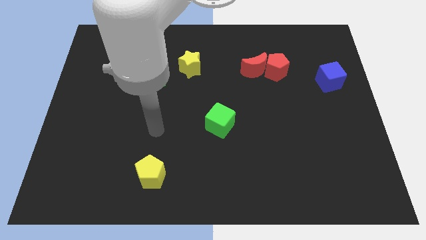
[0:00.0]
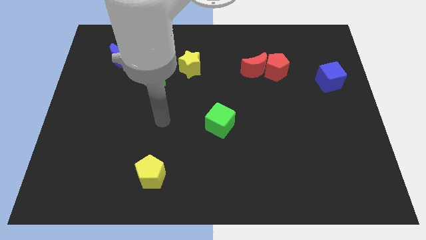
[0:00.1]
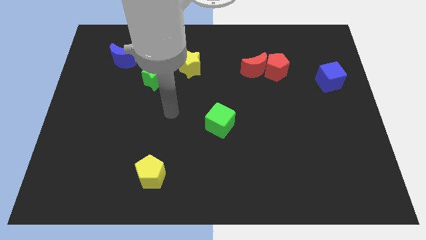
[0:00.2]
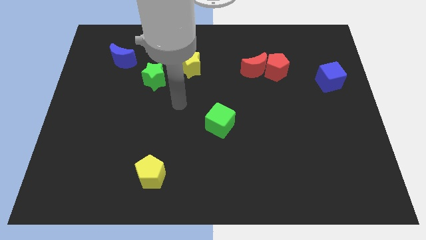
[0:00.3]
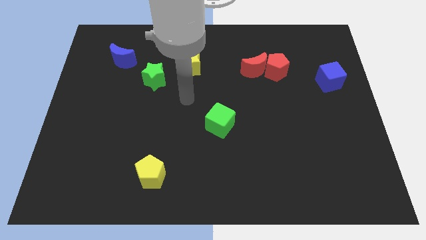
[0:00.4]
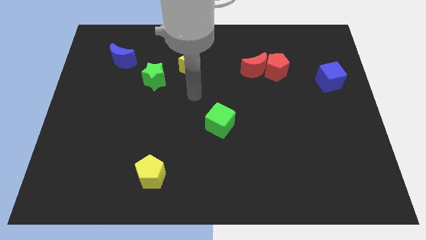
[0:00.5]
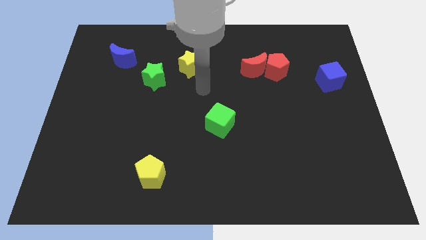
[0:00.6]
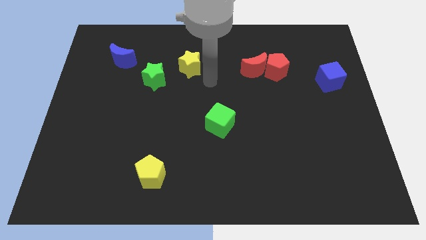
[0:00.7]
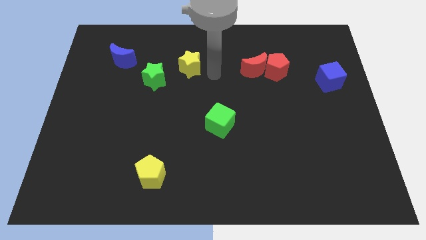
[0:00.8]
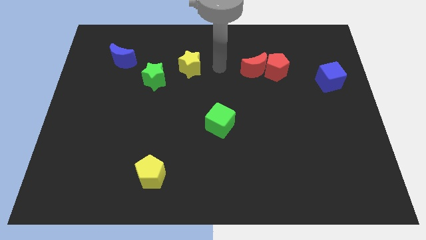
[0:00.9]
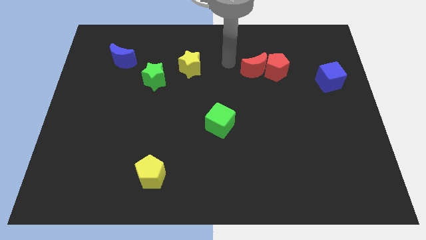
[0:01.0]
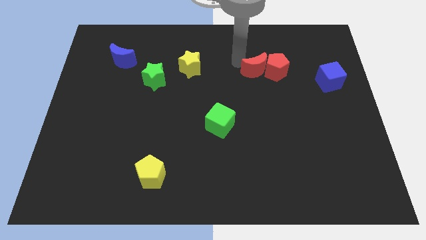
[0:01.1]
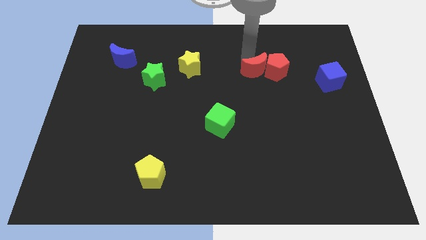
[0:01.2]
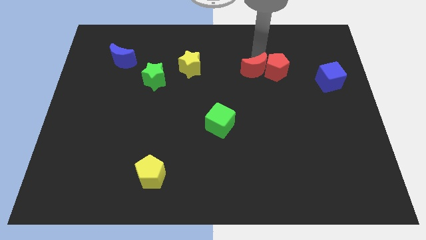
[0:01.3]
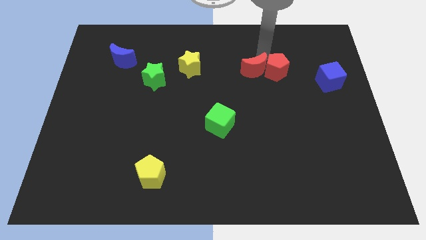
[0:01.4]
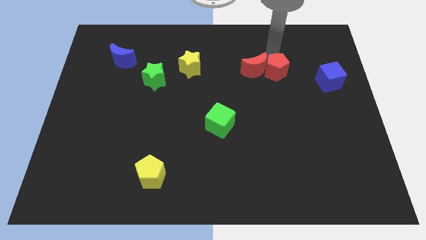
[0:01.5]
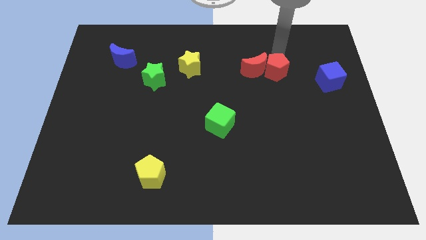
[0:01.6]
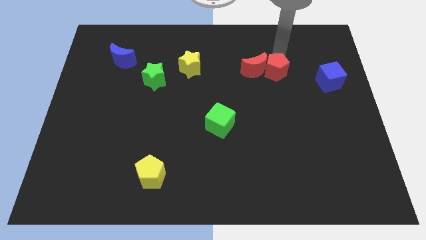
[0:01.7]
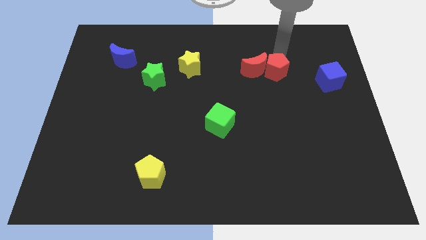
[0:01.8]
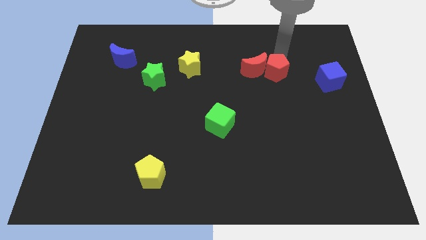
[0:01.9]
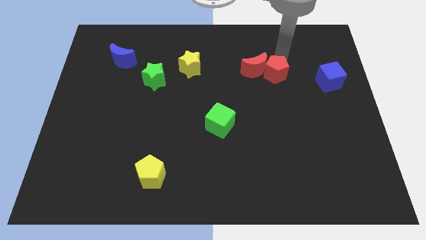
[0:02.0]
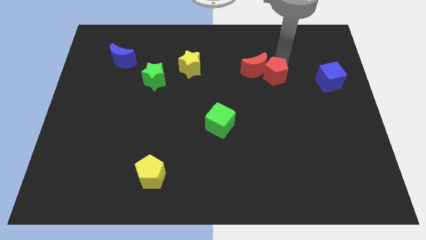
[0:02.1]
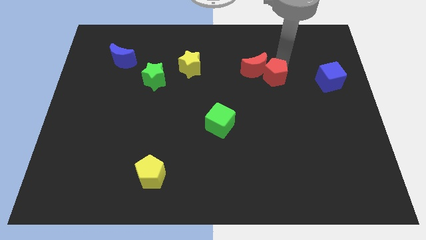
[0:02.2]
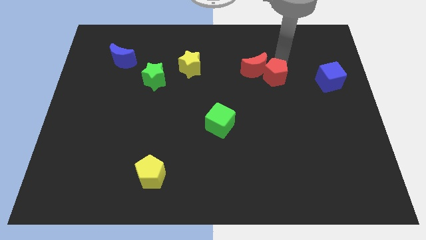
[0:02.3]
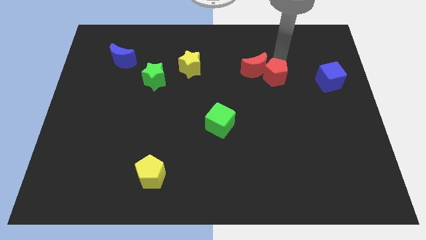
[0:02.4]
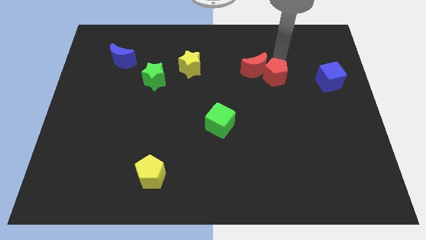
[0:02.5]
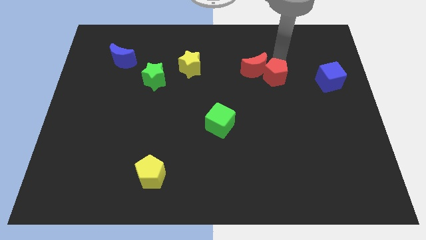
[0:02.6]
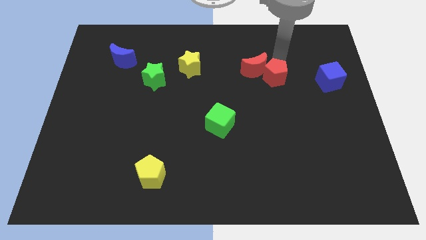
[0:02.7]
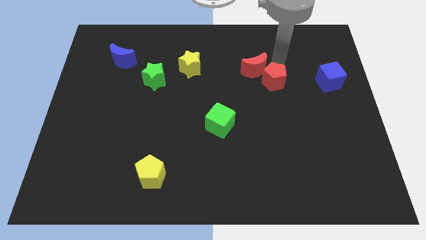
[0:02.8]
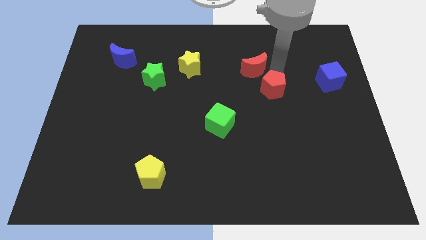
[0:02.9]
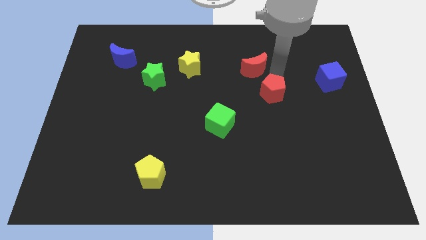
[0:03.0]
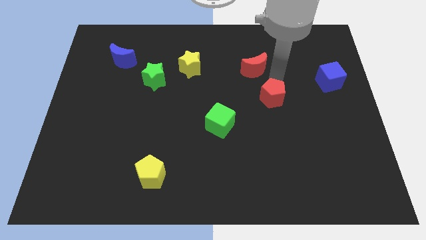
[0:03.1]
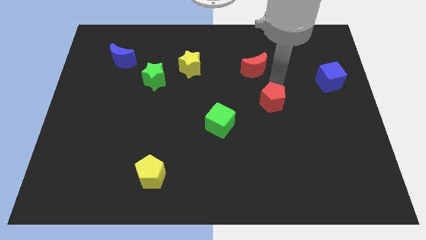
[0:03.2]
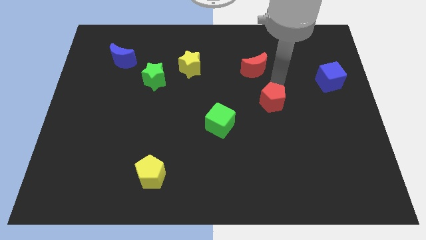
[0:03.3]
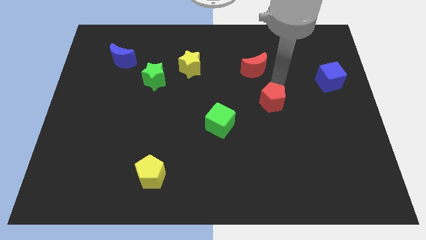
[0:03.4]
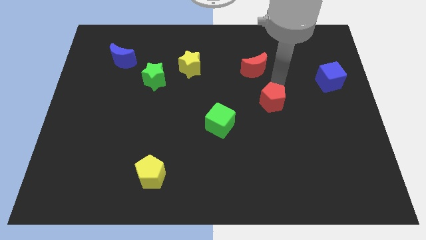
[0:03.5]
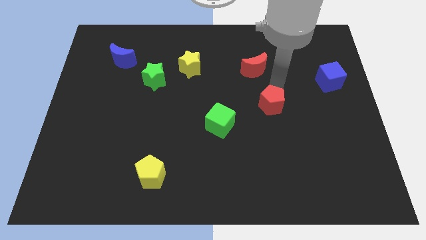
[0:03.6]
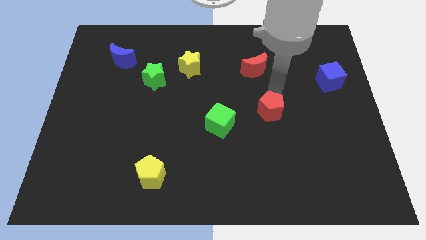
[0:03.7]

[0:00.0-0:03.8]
push the red pentagon just right of the green cube

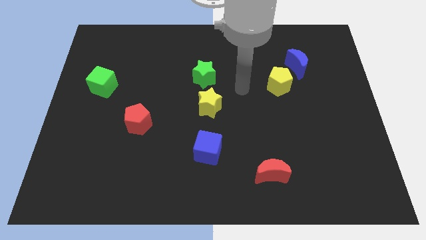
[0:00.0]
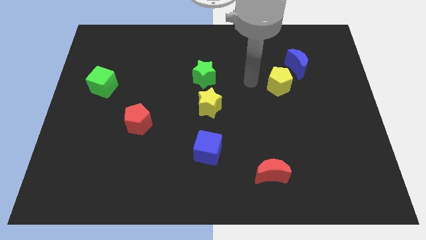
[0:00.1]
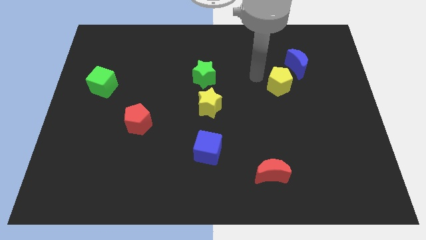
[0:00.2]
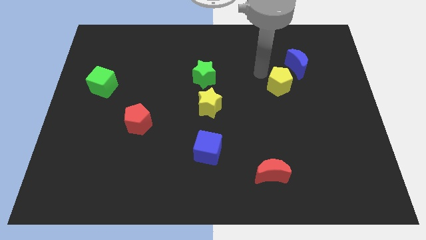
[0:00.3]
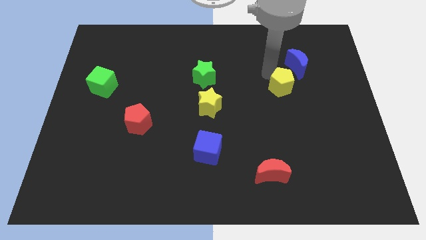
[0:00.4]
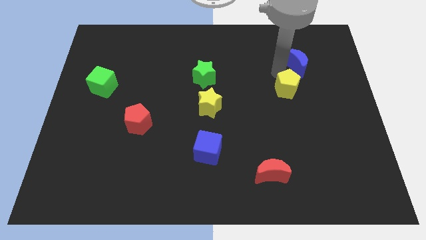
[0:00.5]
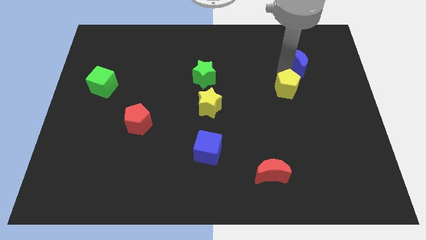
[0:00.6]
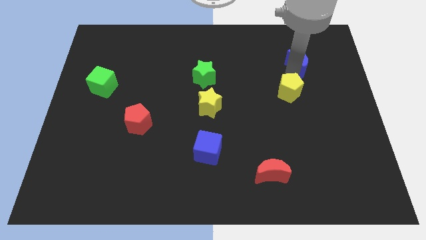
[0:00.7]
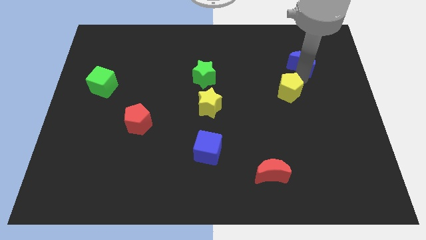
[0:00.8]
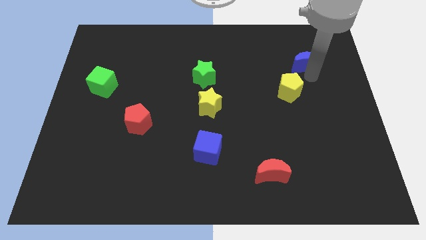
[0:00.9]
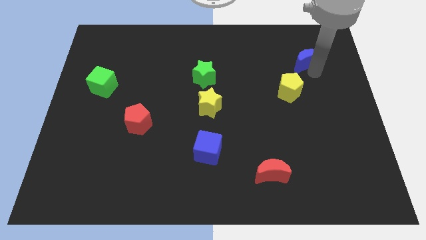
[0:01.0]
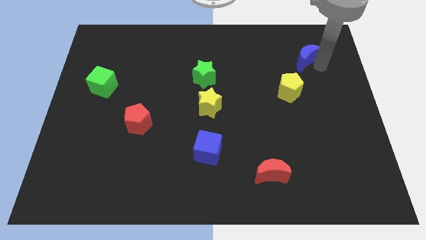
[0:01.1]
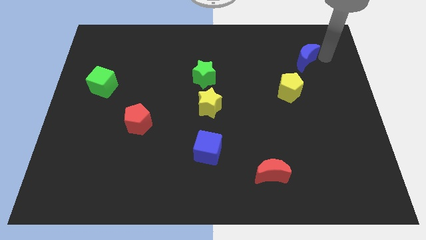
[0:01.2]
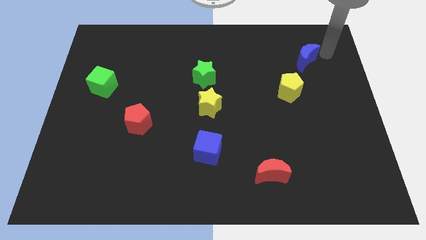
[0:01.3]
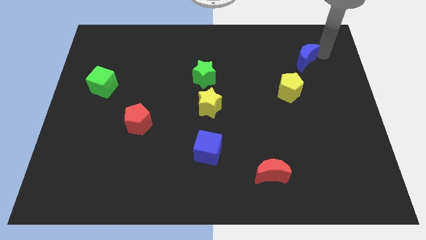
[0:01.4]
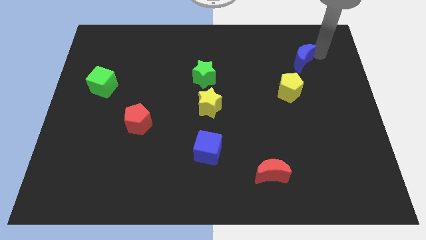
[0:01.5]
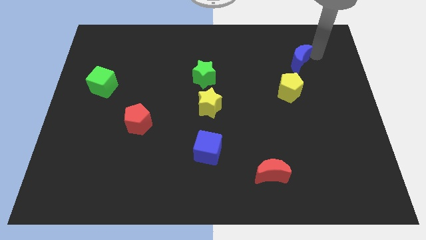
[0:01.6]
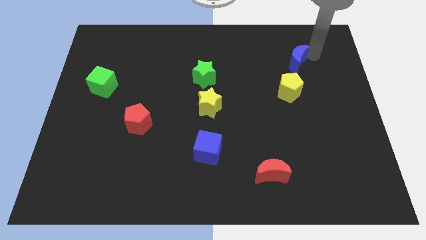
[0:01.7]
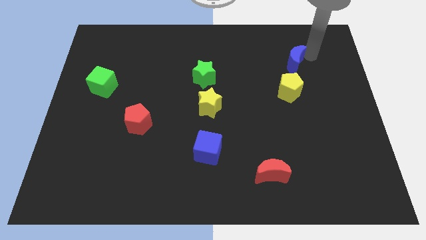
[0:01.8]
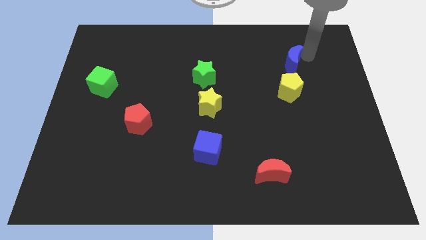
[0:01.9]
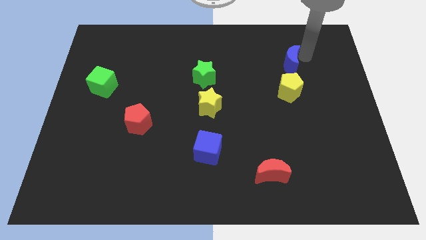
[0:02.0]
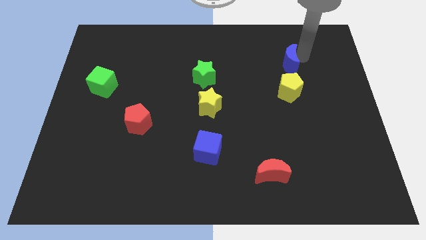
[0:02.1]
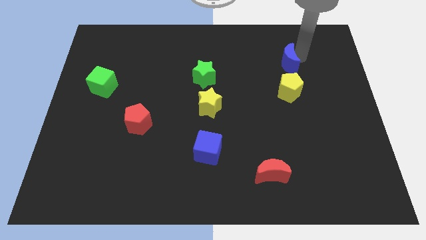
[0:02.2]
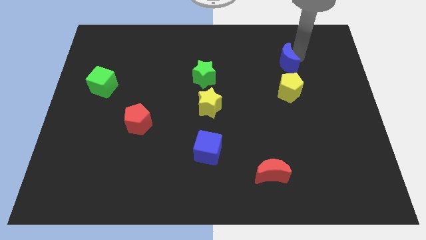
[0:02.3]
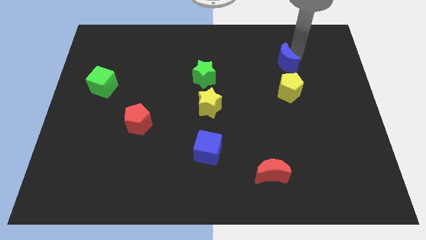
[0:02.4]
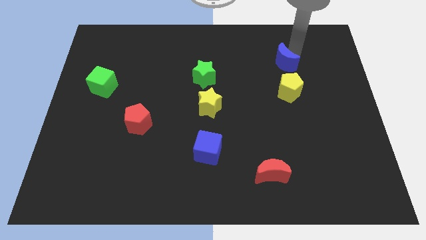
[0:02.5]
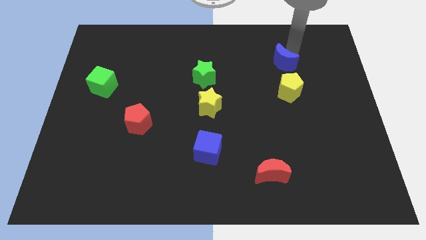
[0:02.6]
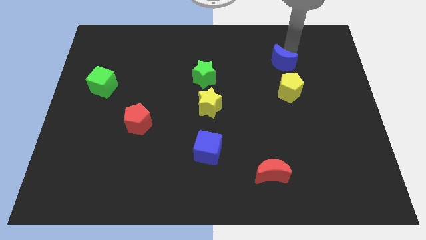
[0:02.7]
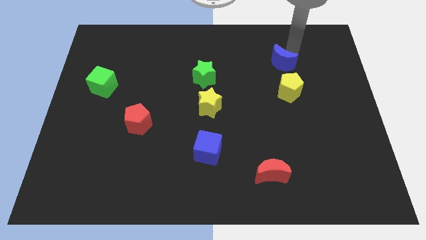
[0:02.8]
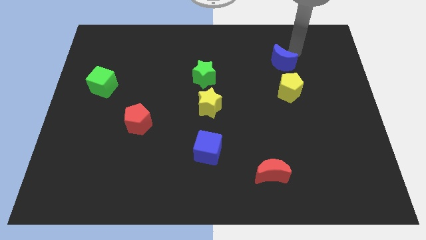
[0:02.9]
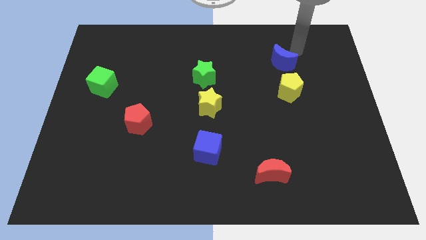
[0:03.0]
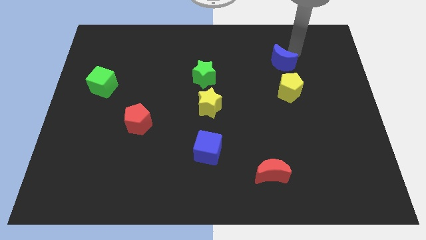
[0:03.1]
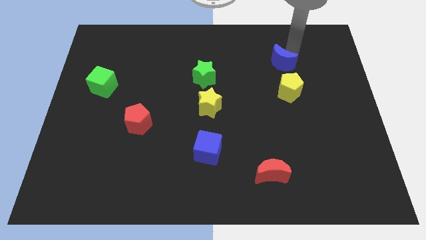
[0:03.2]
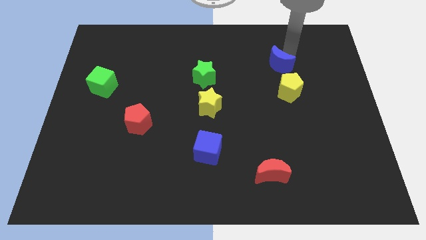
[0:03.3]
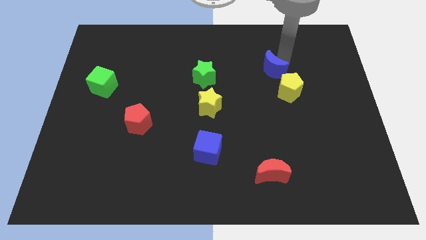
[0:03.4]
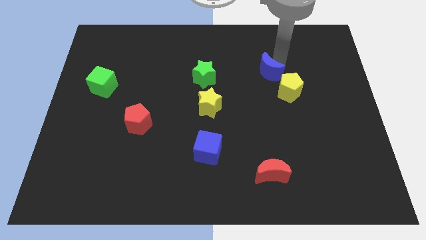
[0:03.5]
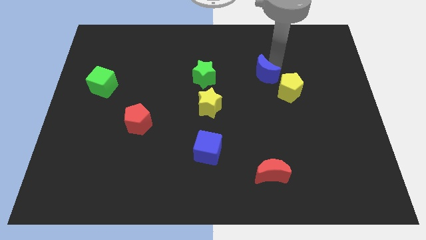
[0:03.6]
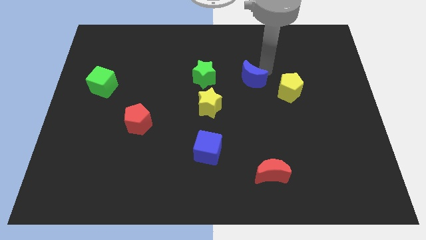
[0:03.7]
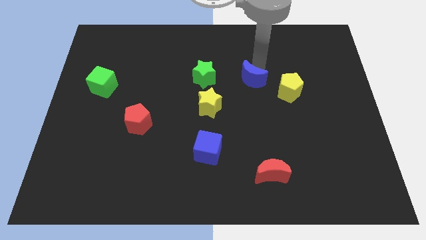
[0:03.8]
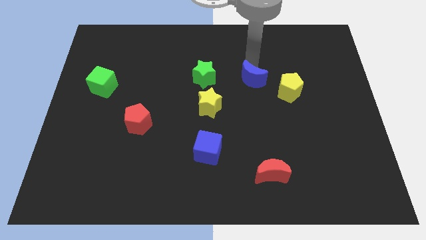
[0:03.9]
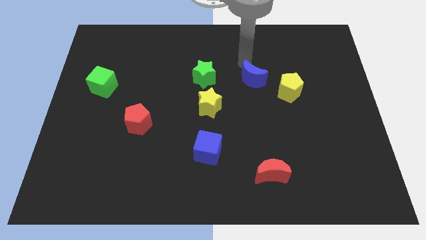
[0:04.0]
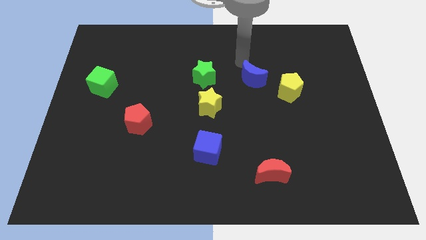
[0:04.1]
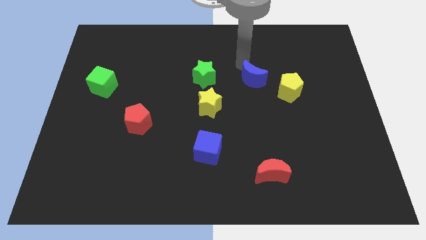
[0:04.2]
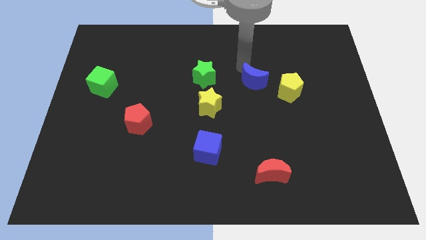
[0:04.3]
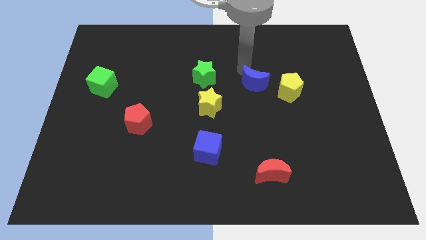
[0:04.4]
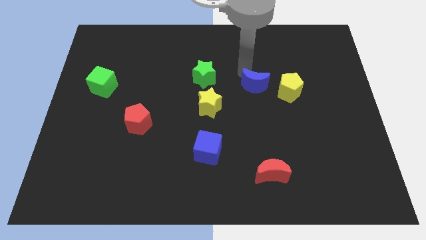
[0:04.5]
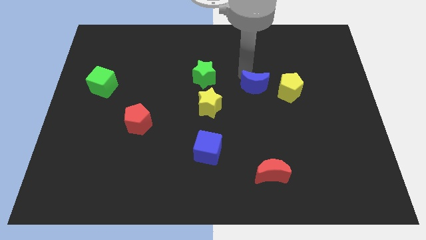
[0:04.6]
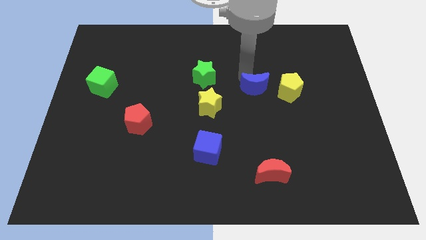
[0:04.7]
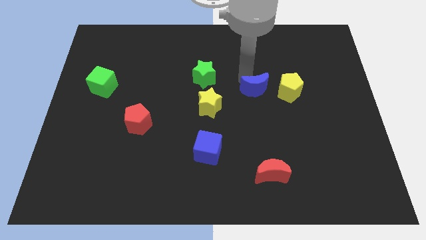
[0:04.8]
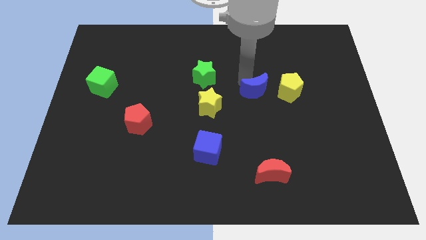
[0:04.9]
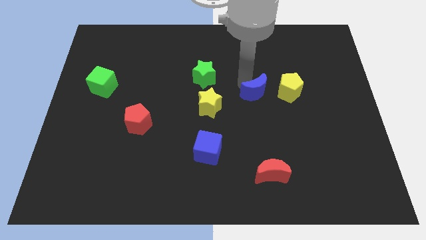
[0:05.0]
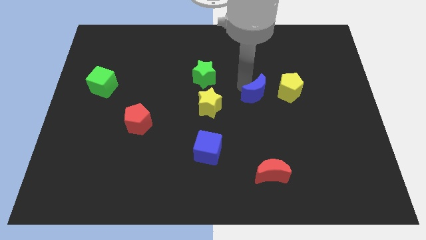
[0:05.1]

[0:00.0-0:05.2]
push the blue moon diagonally down and to the left of the yellow pentagon
